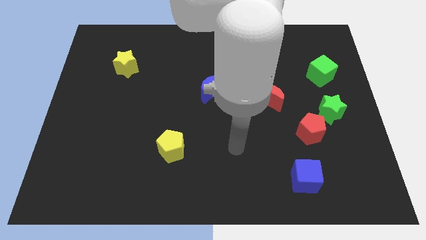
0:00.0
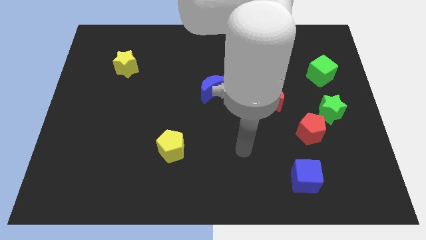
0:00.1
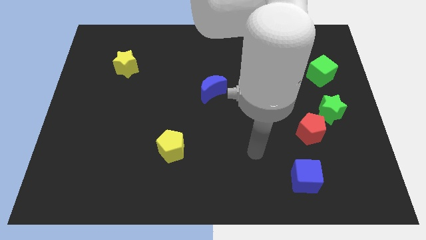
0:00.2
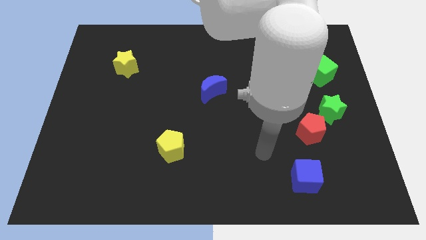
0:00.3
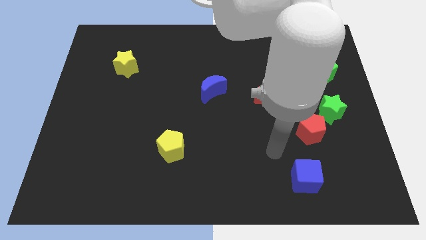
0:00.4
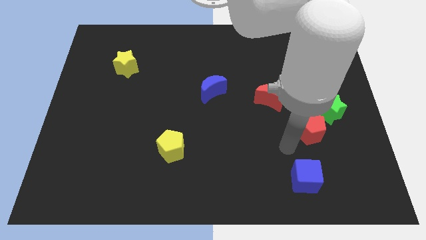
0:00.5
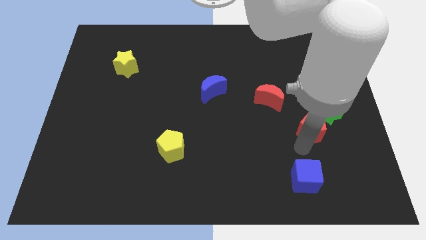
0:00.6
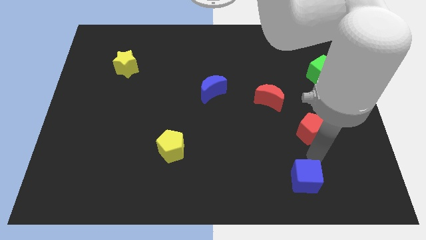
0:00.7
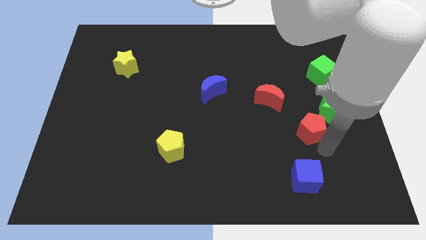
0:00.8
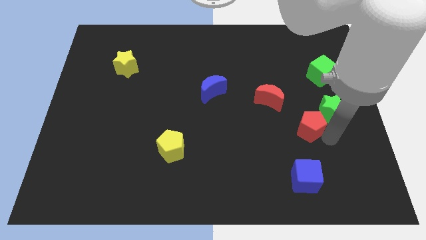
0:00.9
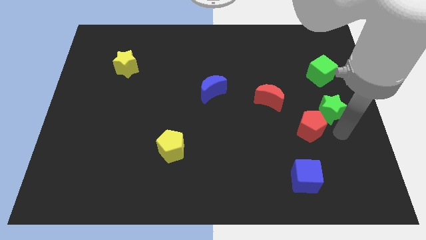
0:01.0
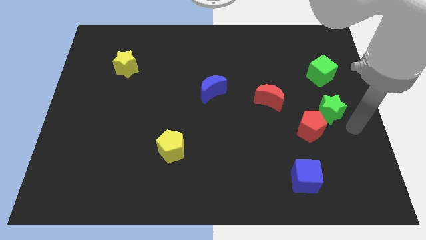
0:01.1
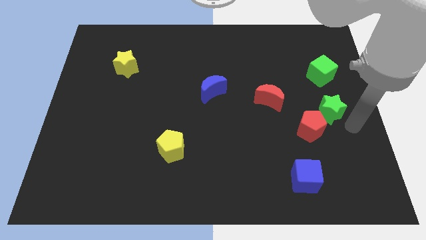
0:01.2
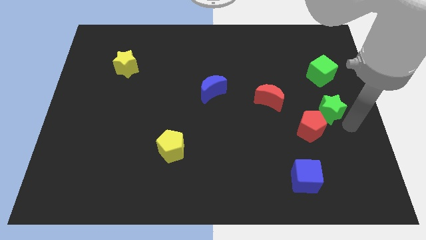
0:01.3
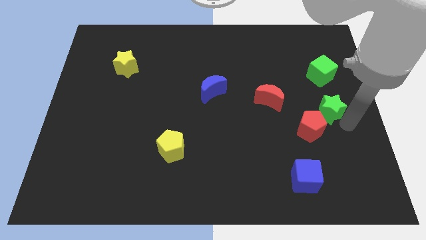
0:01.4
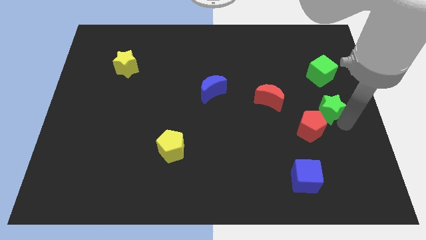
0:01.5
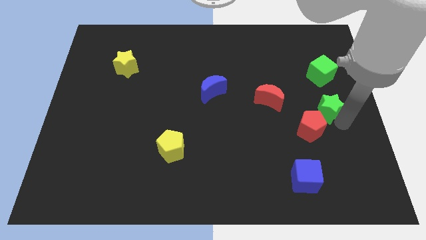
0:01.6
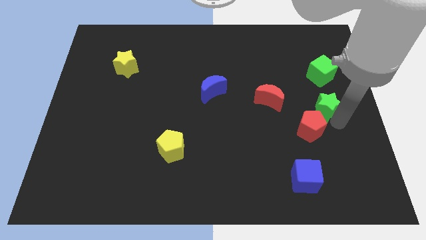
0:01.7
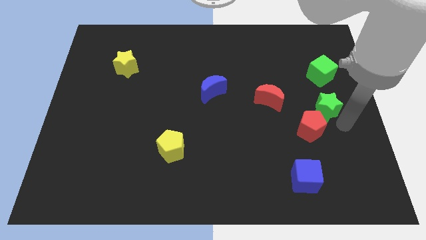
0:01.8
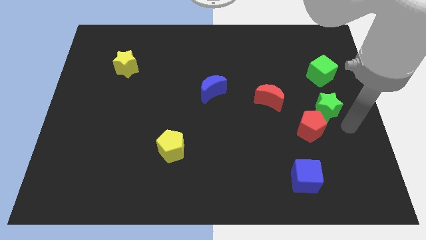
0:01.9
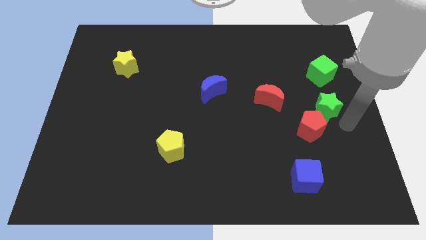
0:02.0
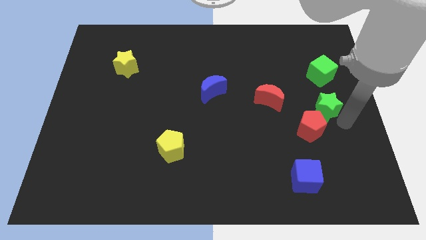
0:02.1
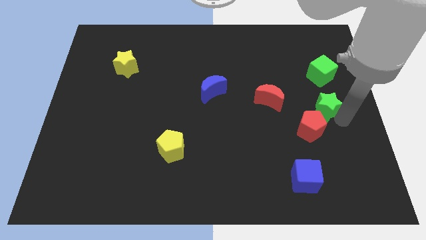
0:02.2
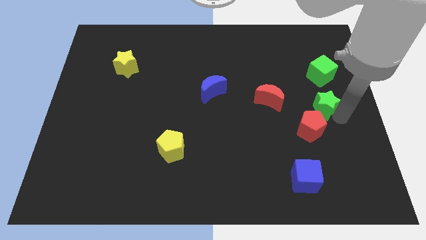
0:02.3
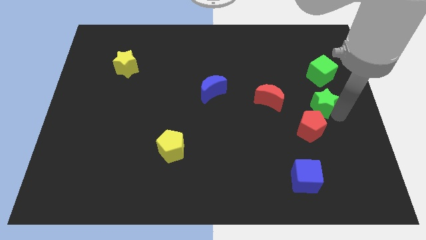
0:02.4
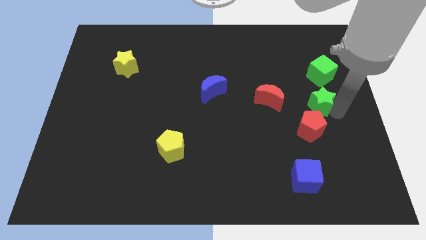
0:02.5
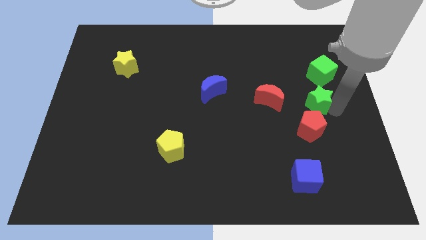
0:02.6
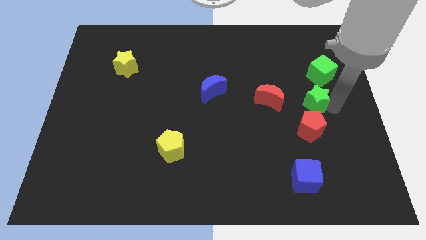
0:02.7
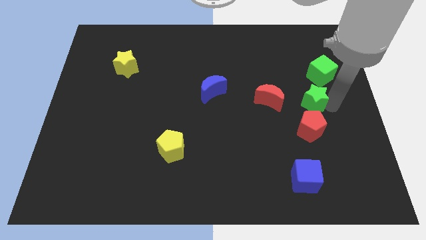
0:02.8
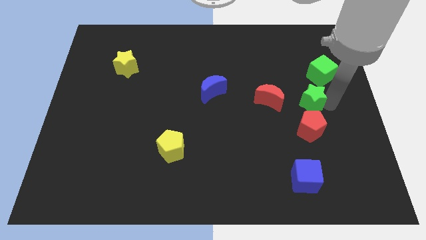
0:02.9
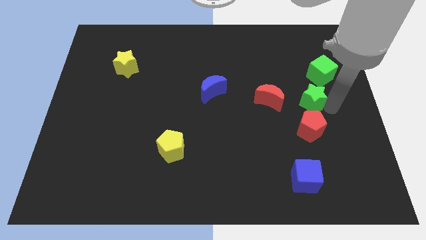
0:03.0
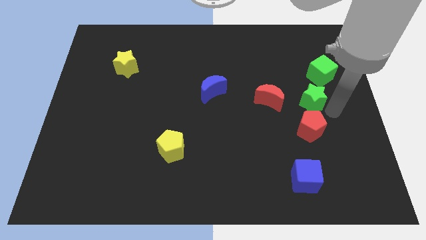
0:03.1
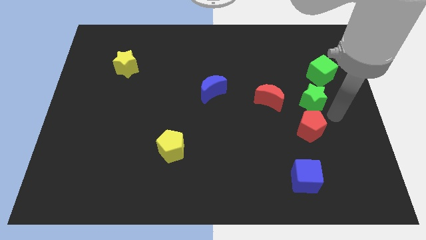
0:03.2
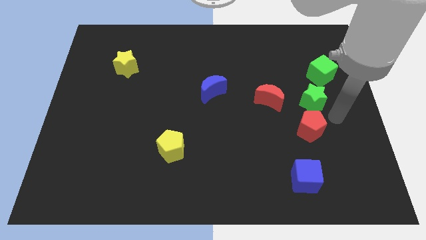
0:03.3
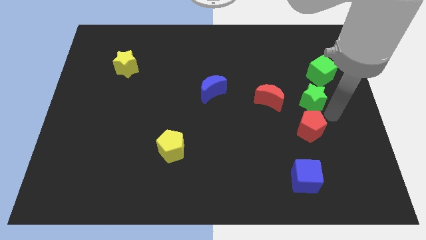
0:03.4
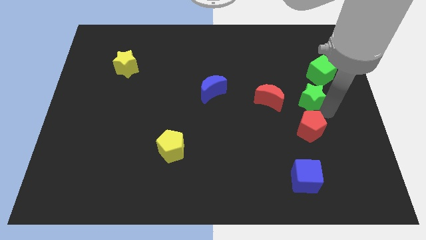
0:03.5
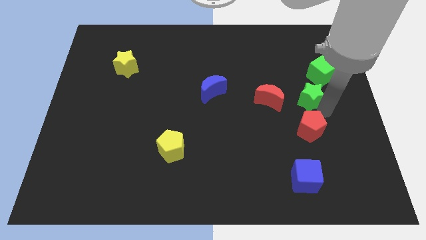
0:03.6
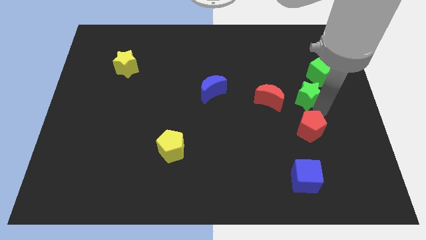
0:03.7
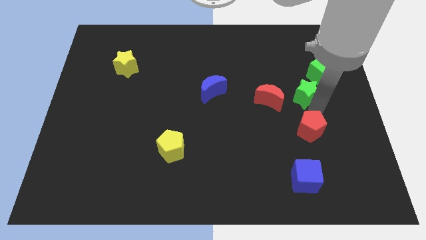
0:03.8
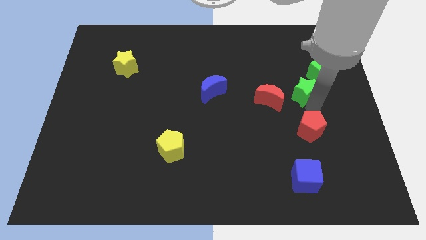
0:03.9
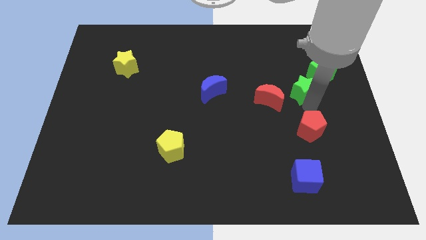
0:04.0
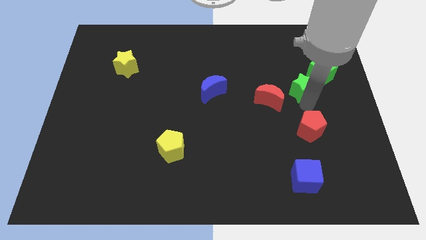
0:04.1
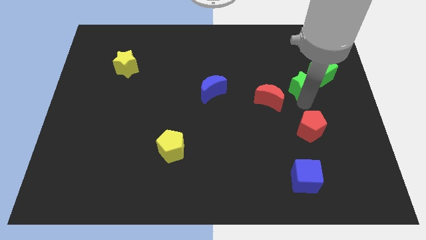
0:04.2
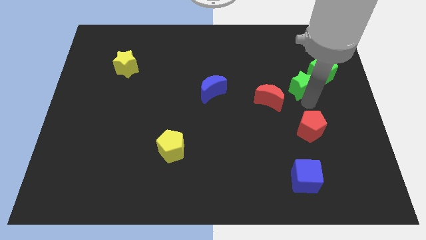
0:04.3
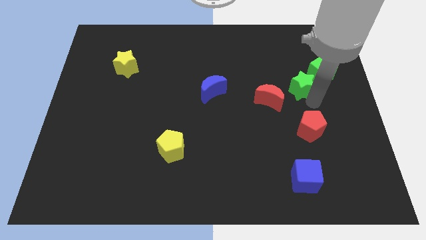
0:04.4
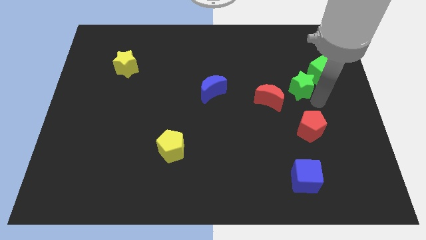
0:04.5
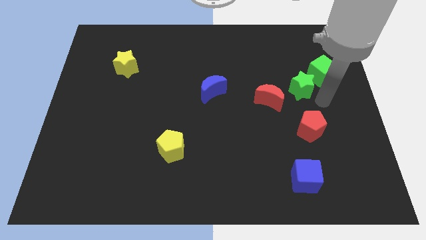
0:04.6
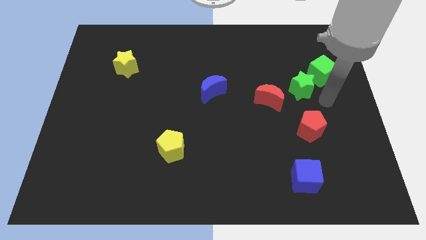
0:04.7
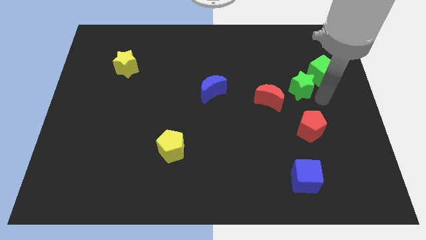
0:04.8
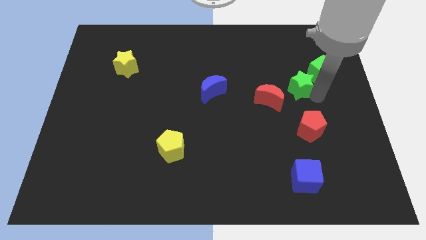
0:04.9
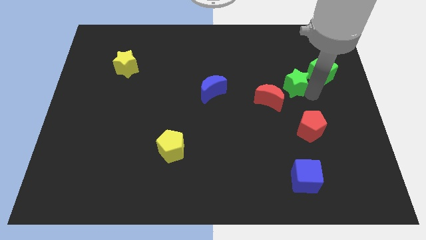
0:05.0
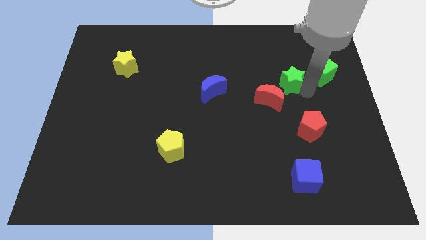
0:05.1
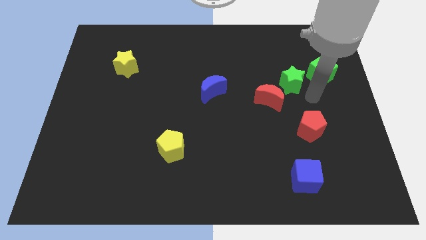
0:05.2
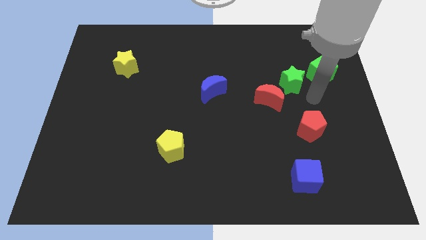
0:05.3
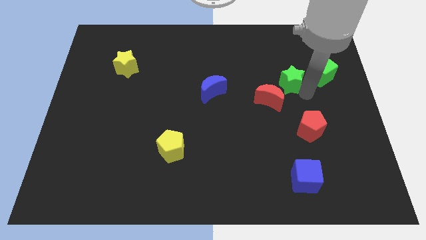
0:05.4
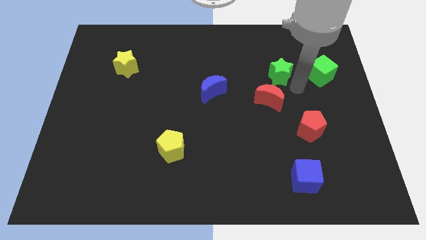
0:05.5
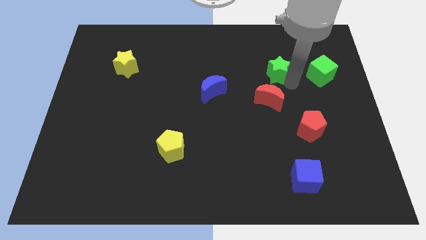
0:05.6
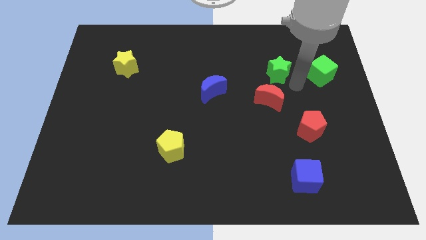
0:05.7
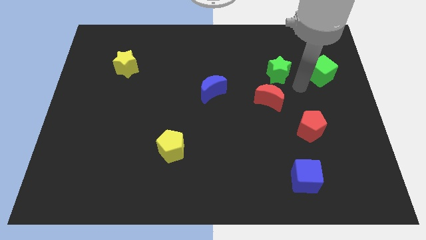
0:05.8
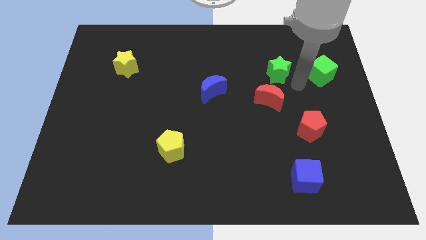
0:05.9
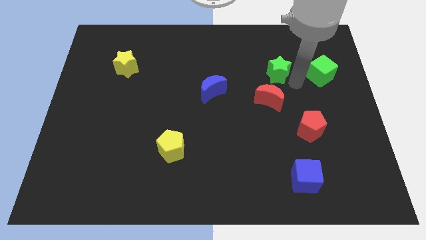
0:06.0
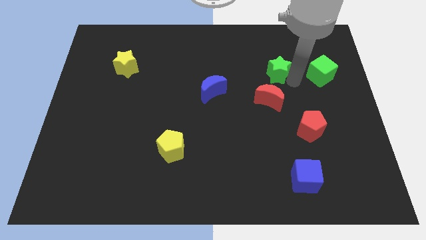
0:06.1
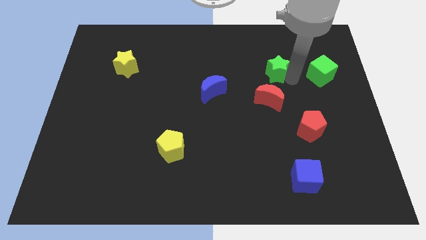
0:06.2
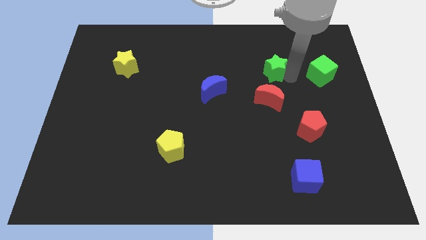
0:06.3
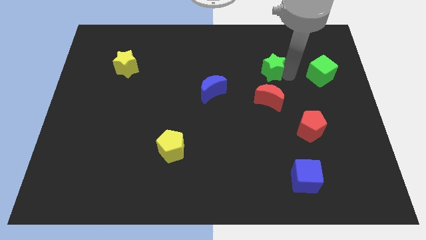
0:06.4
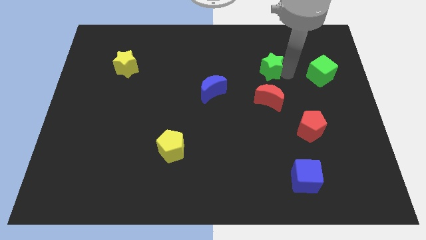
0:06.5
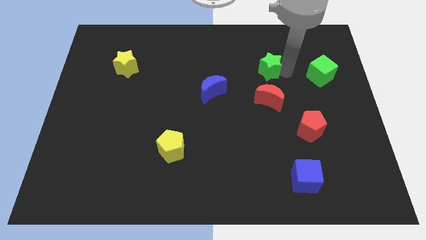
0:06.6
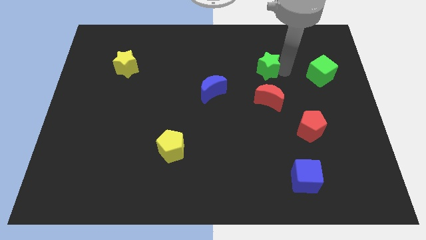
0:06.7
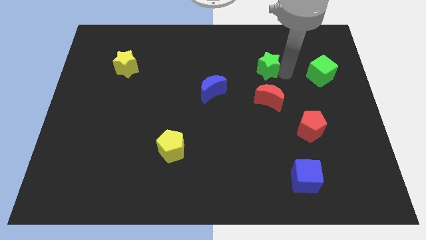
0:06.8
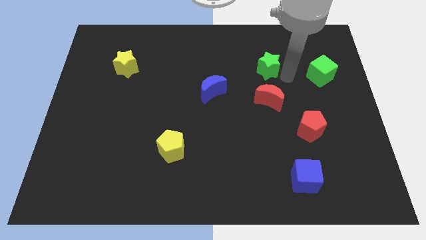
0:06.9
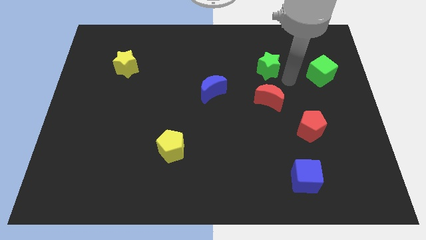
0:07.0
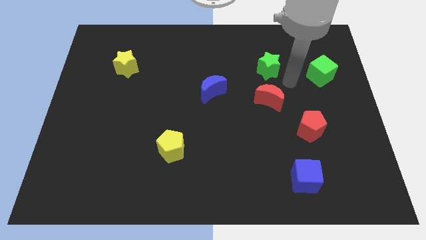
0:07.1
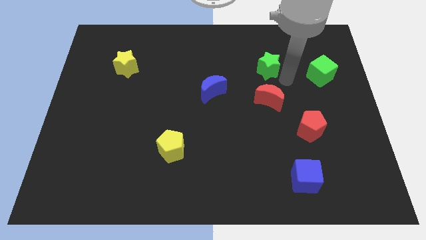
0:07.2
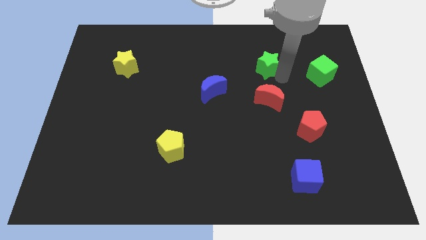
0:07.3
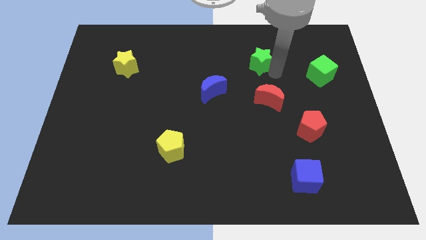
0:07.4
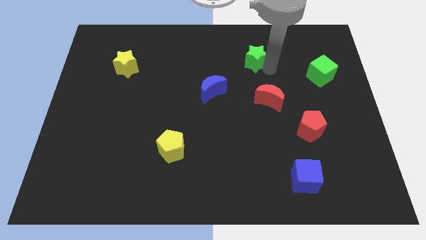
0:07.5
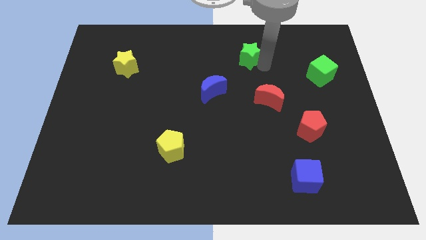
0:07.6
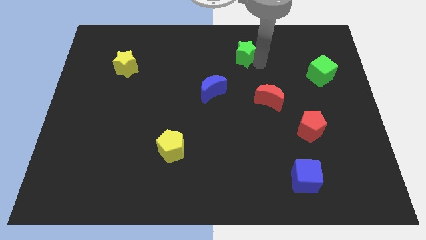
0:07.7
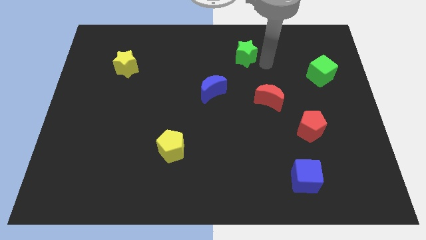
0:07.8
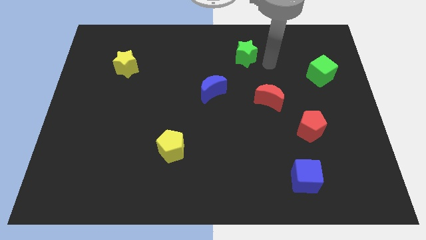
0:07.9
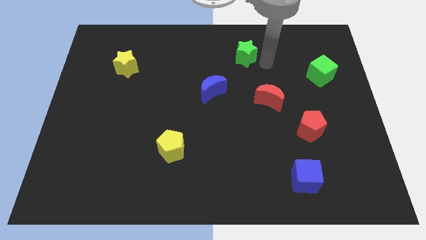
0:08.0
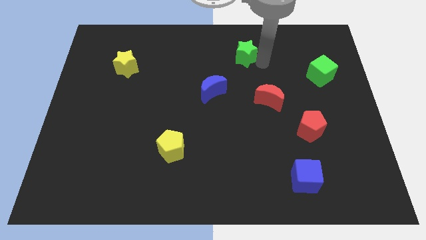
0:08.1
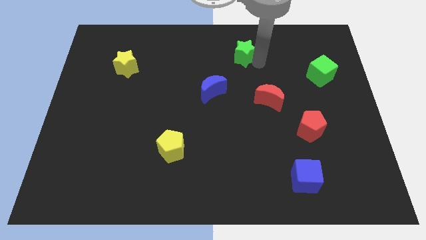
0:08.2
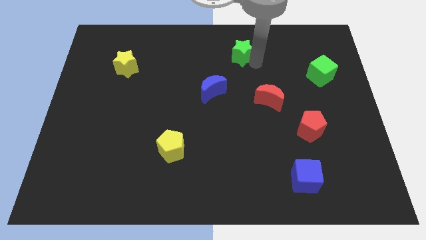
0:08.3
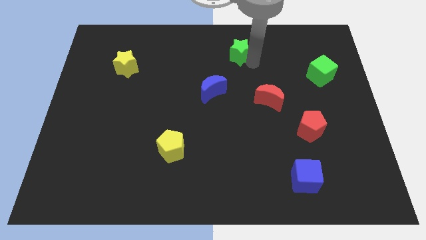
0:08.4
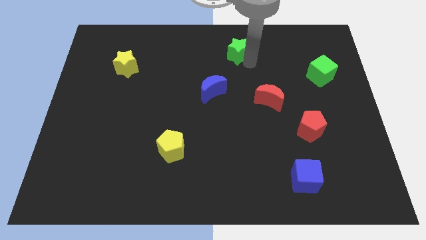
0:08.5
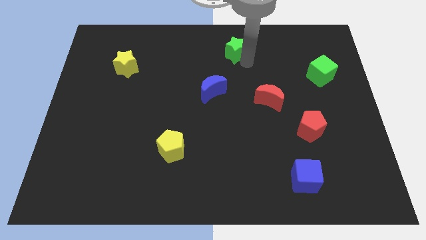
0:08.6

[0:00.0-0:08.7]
slide the green star to the towards your base

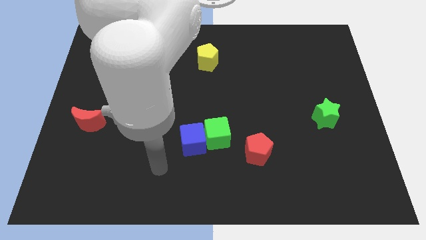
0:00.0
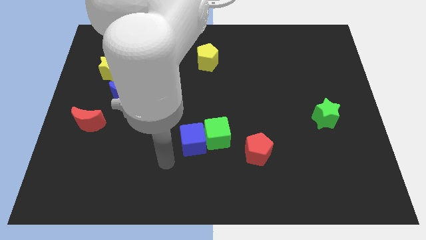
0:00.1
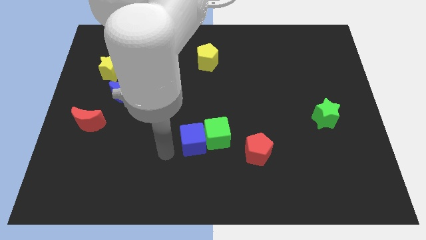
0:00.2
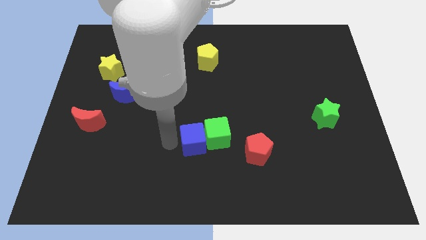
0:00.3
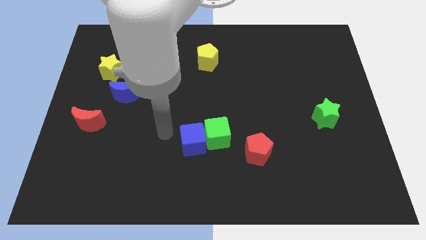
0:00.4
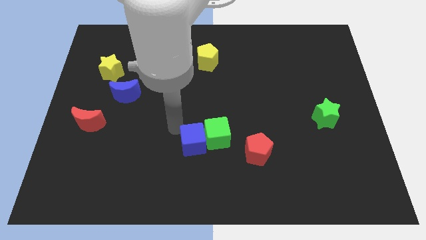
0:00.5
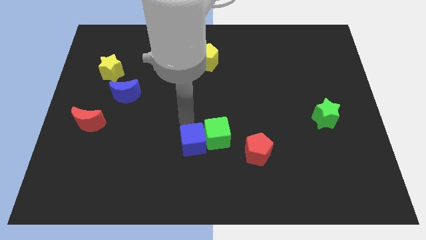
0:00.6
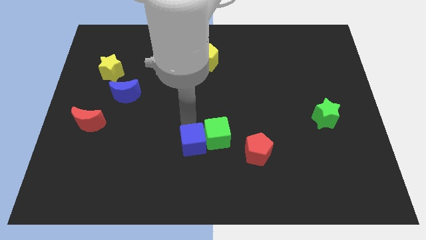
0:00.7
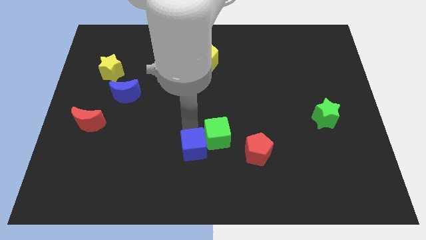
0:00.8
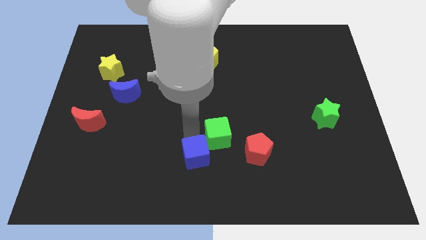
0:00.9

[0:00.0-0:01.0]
push the blue cube to the bottom side
